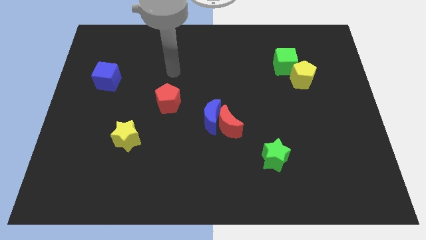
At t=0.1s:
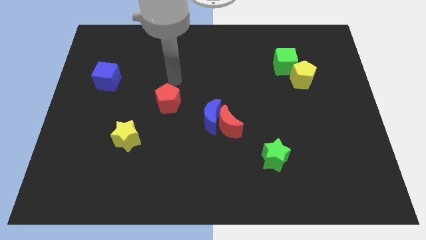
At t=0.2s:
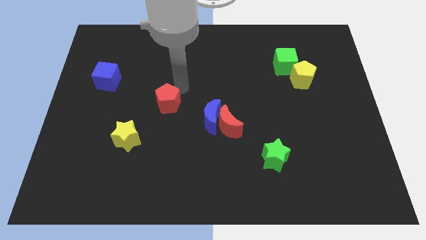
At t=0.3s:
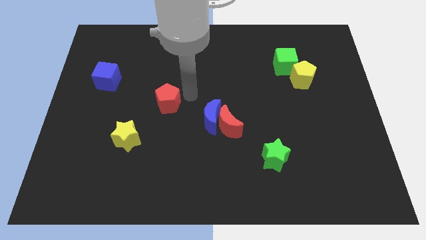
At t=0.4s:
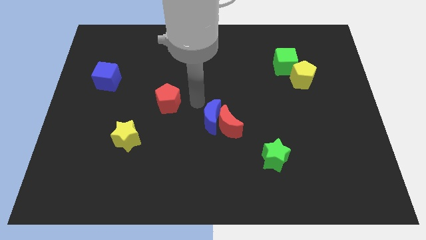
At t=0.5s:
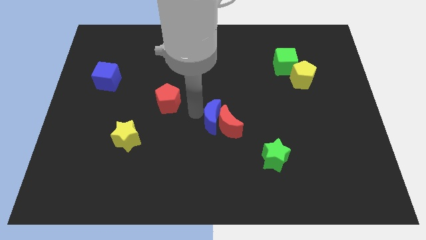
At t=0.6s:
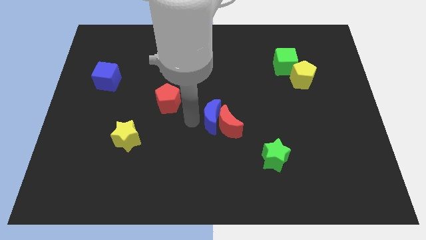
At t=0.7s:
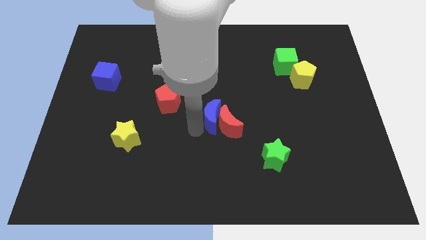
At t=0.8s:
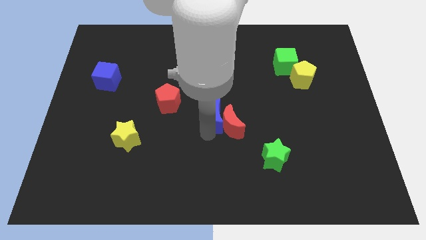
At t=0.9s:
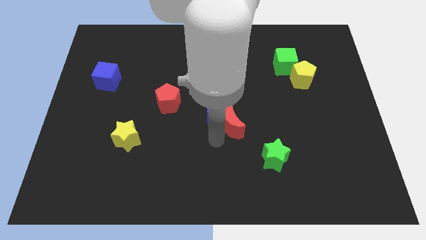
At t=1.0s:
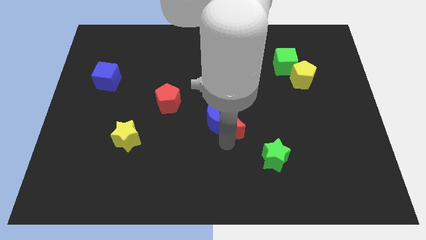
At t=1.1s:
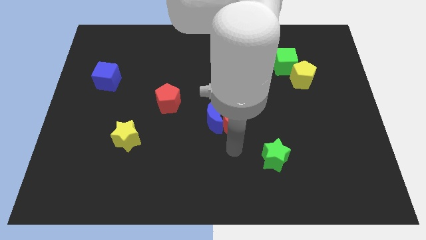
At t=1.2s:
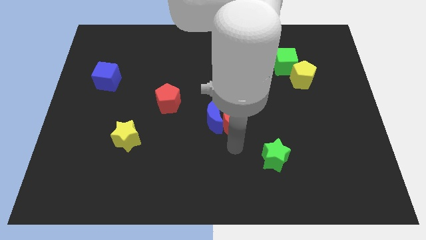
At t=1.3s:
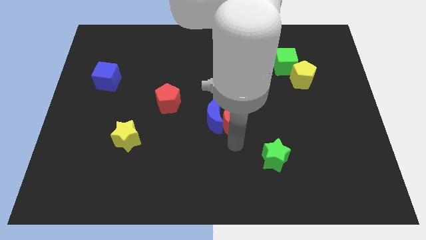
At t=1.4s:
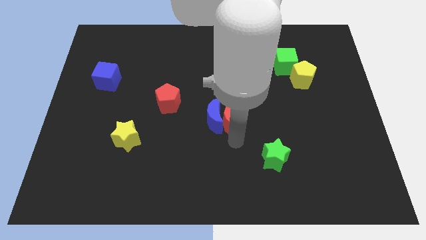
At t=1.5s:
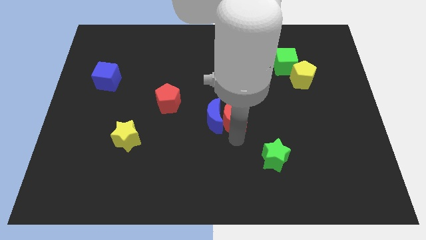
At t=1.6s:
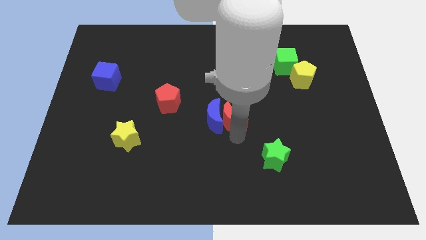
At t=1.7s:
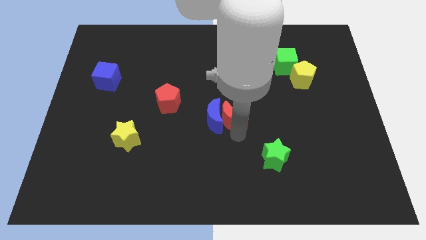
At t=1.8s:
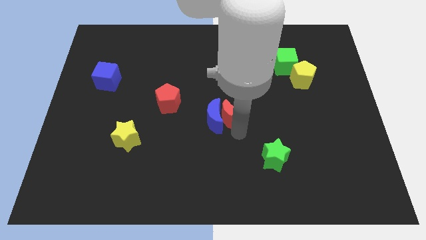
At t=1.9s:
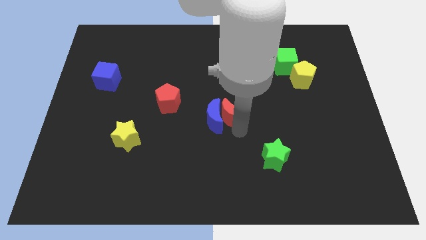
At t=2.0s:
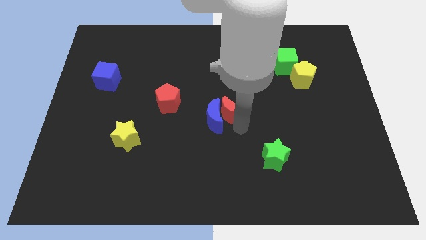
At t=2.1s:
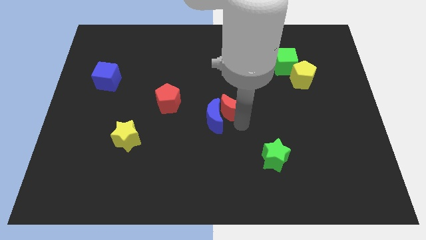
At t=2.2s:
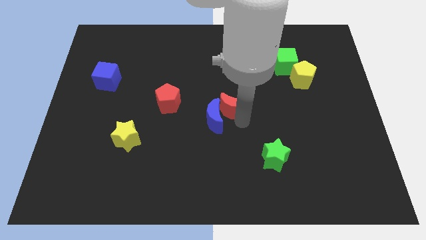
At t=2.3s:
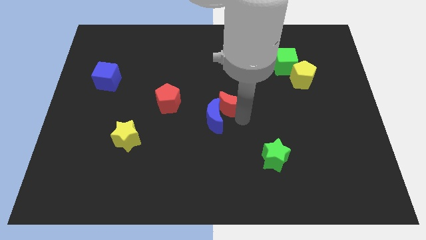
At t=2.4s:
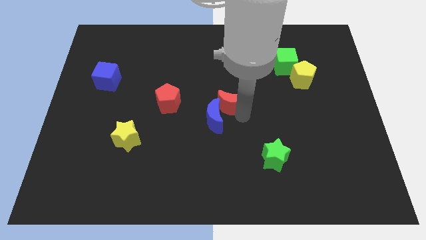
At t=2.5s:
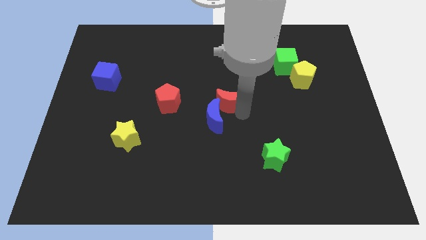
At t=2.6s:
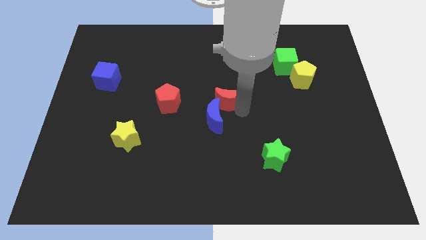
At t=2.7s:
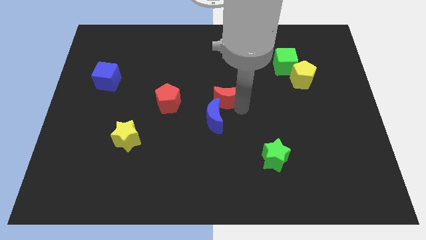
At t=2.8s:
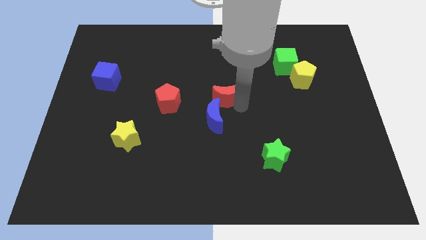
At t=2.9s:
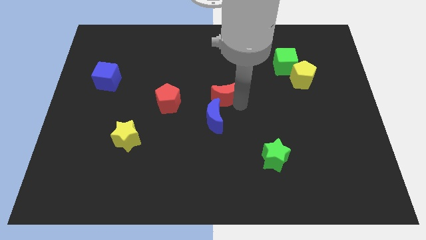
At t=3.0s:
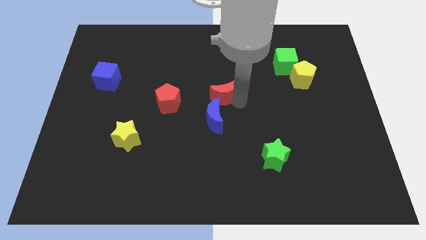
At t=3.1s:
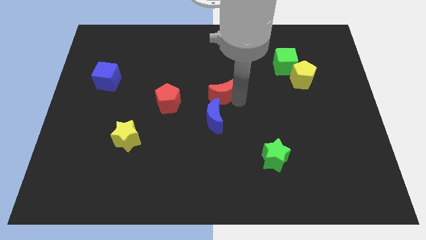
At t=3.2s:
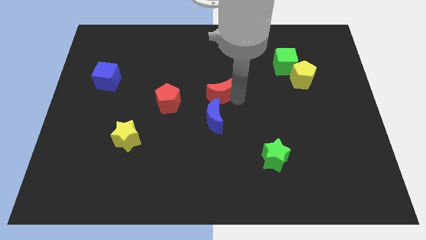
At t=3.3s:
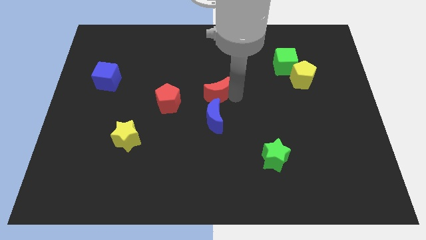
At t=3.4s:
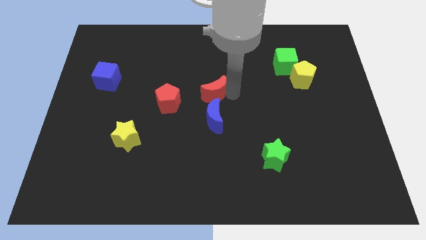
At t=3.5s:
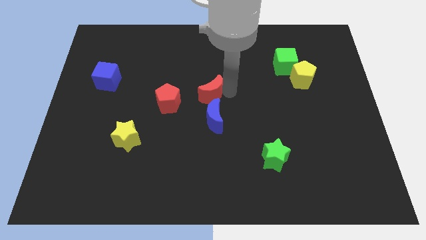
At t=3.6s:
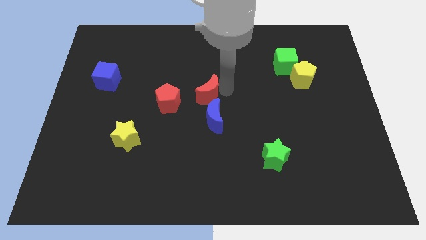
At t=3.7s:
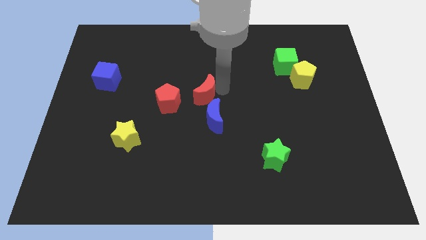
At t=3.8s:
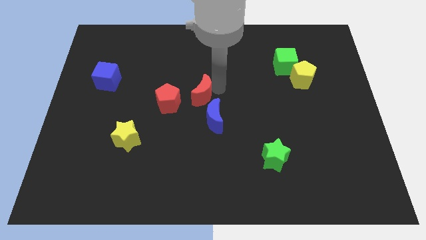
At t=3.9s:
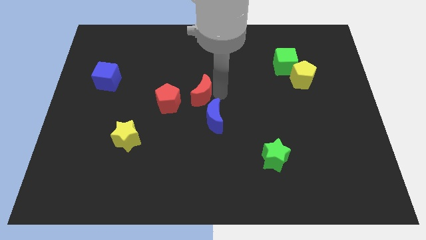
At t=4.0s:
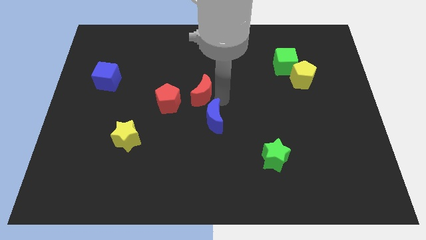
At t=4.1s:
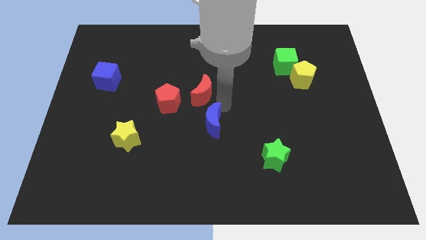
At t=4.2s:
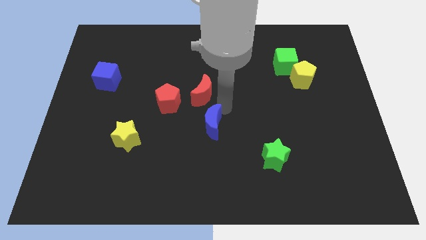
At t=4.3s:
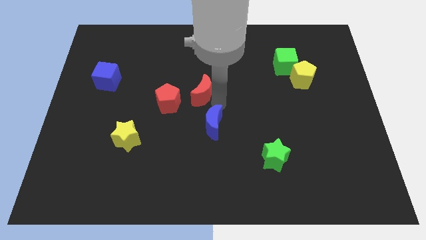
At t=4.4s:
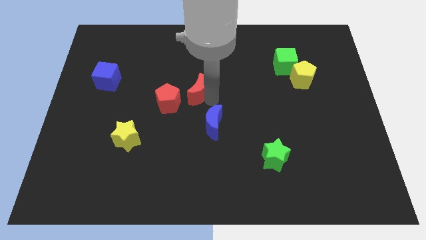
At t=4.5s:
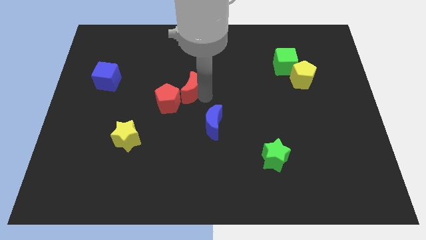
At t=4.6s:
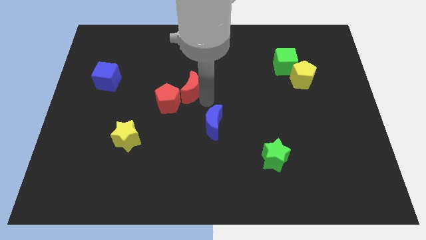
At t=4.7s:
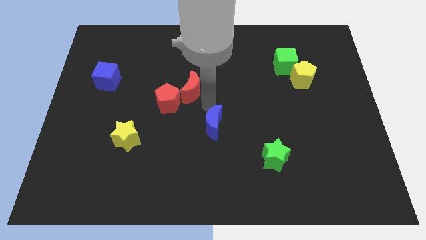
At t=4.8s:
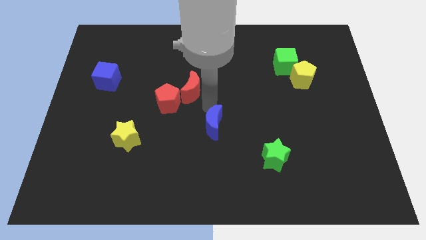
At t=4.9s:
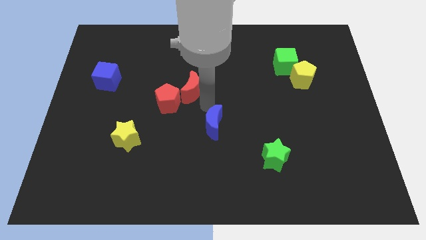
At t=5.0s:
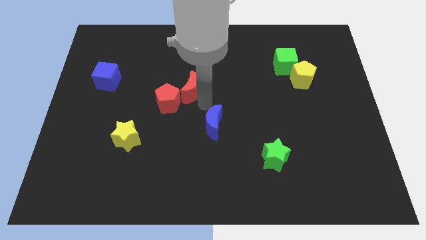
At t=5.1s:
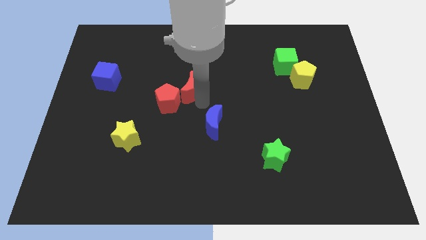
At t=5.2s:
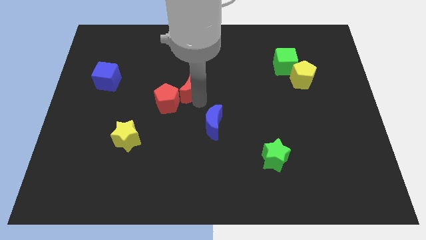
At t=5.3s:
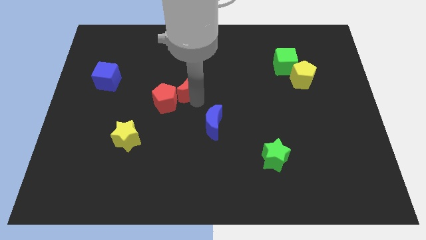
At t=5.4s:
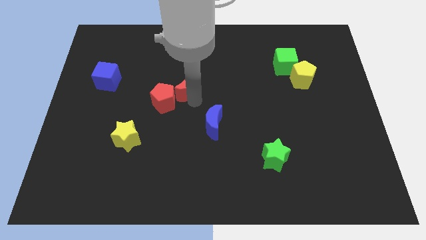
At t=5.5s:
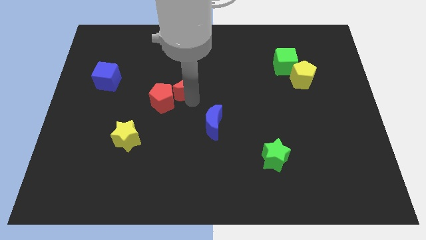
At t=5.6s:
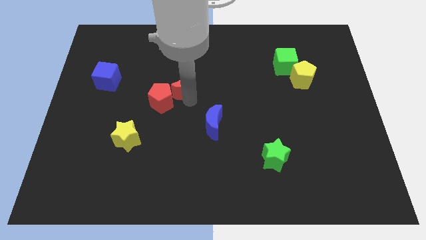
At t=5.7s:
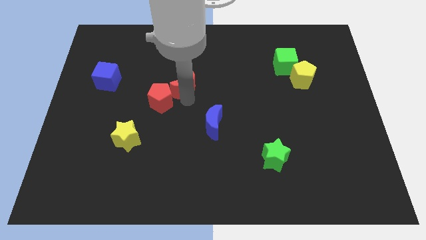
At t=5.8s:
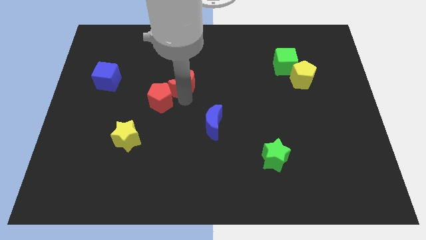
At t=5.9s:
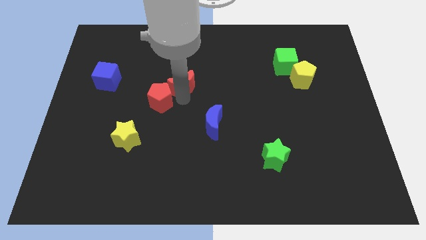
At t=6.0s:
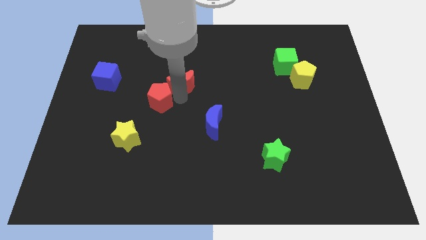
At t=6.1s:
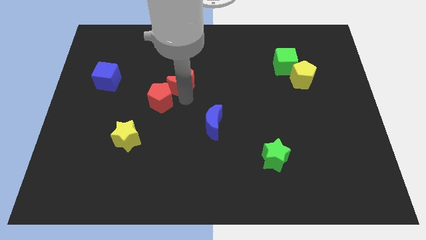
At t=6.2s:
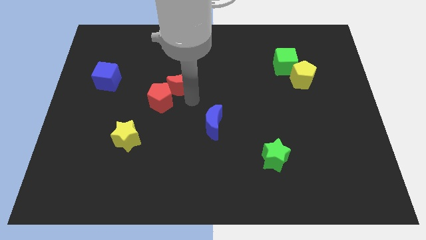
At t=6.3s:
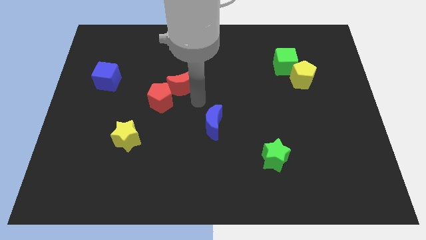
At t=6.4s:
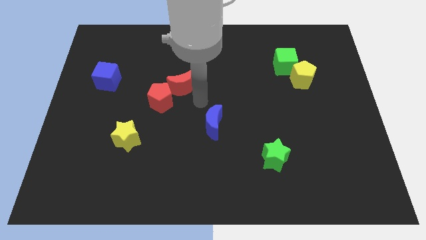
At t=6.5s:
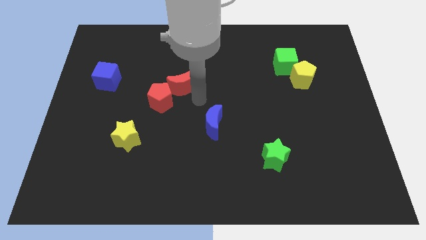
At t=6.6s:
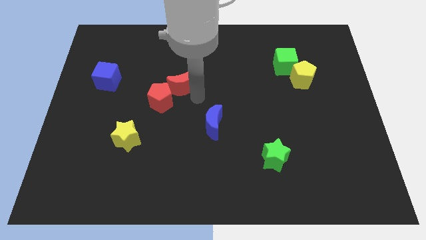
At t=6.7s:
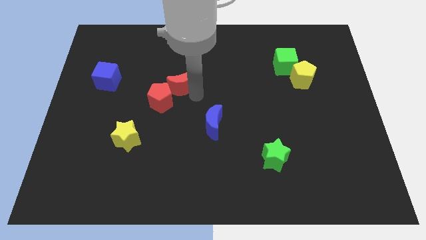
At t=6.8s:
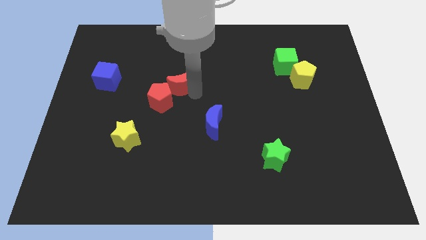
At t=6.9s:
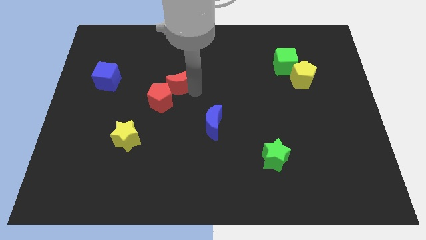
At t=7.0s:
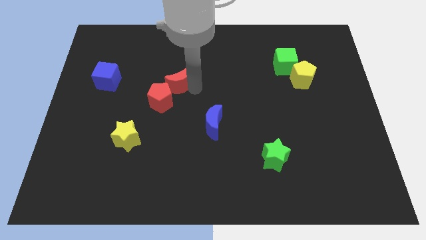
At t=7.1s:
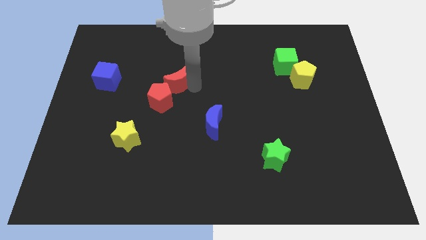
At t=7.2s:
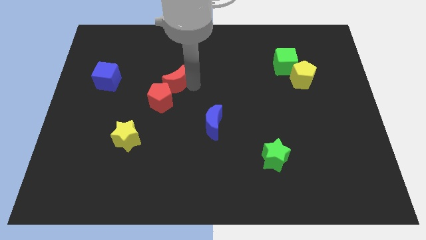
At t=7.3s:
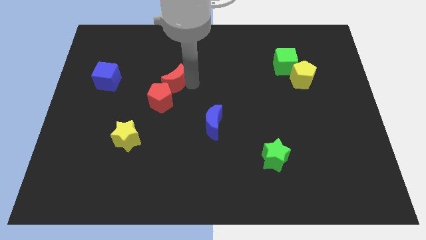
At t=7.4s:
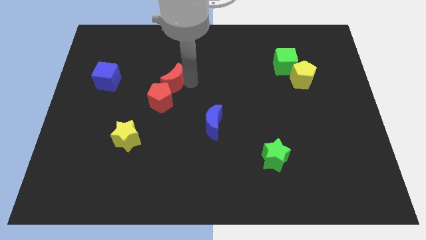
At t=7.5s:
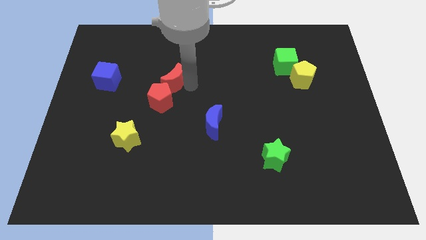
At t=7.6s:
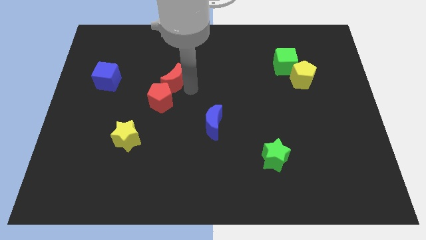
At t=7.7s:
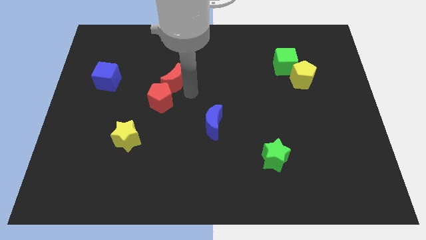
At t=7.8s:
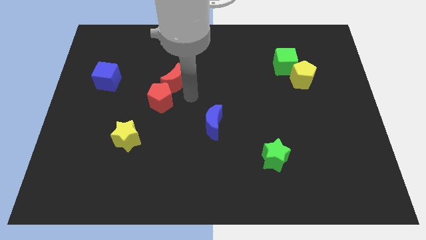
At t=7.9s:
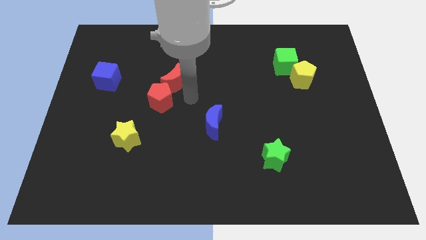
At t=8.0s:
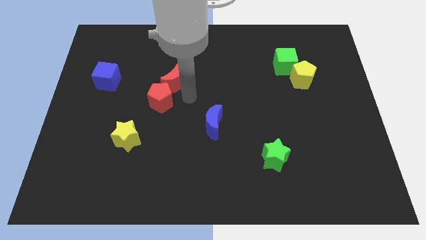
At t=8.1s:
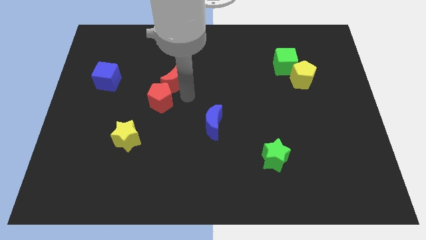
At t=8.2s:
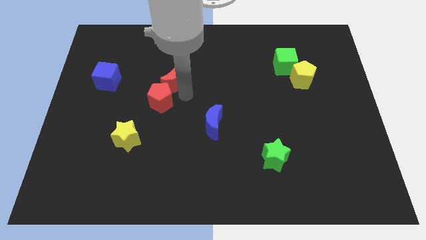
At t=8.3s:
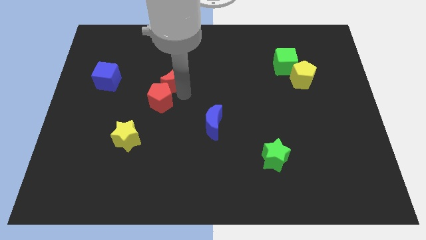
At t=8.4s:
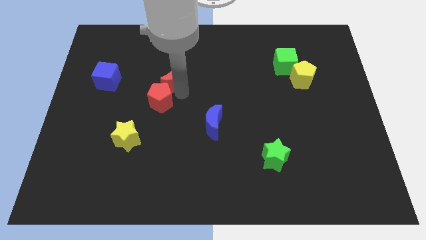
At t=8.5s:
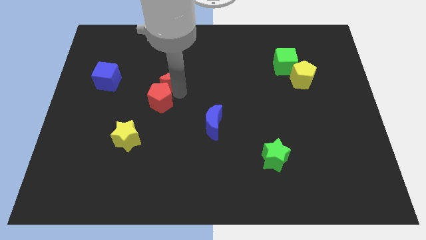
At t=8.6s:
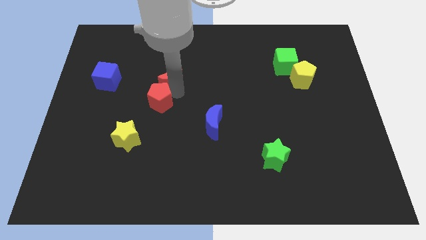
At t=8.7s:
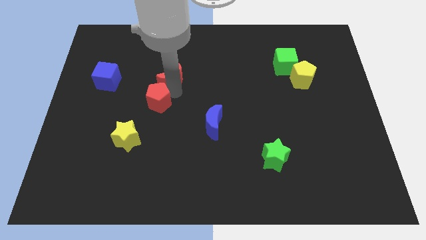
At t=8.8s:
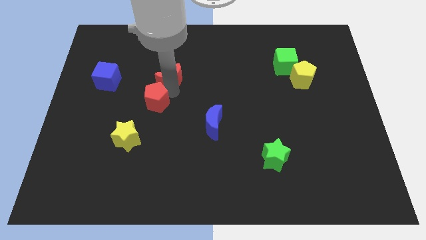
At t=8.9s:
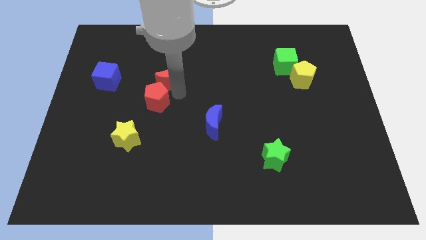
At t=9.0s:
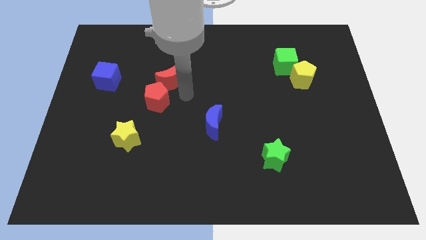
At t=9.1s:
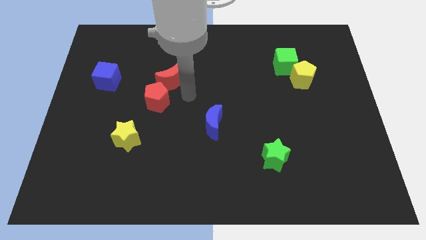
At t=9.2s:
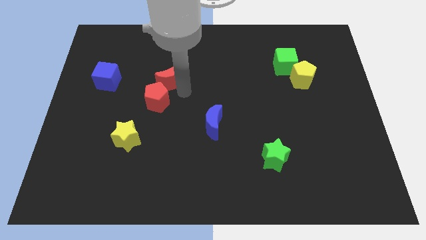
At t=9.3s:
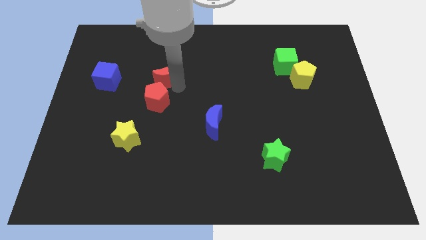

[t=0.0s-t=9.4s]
push the red moon diagonally up and left
